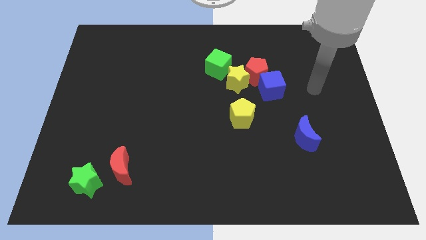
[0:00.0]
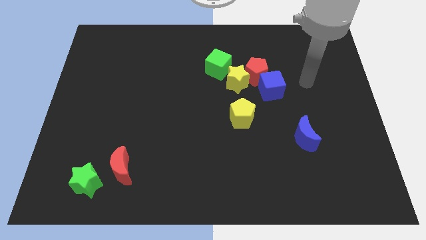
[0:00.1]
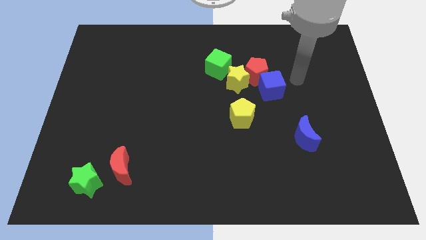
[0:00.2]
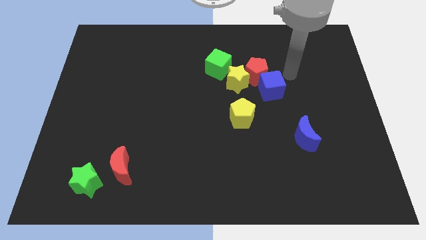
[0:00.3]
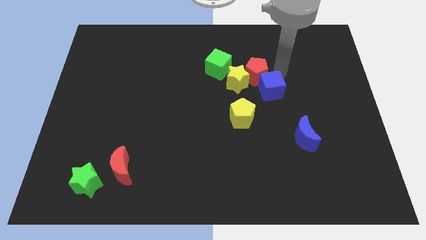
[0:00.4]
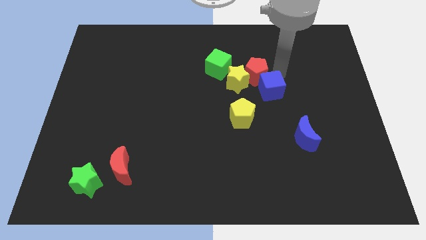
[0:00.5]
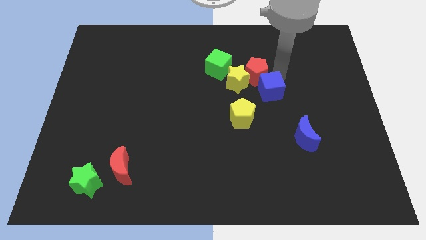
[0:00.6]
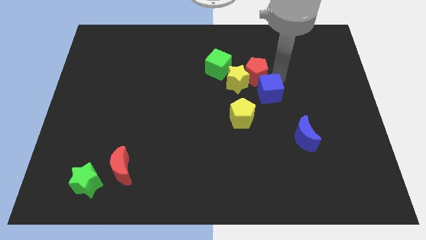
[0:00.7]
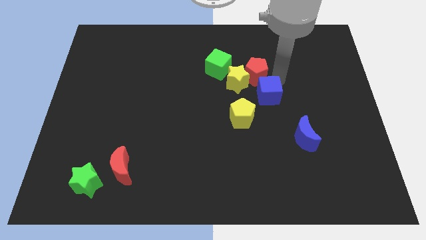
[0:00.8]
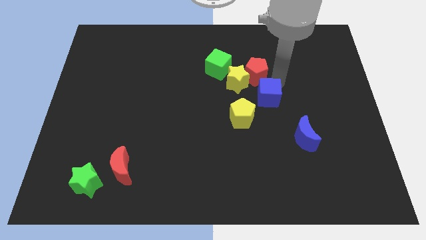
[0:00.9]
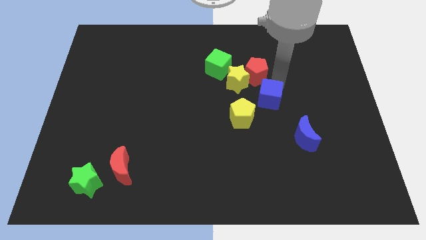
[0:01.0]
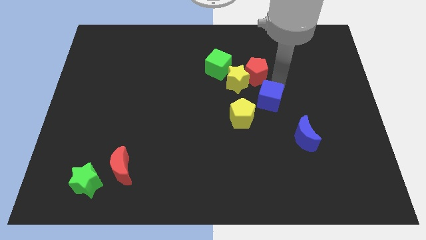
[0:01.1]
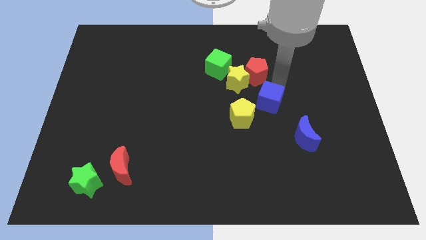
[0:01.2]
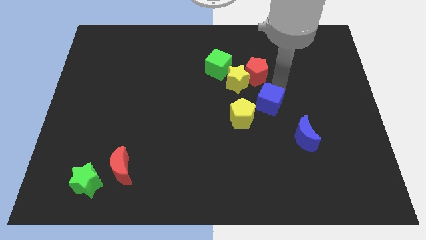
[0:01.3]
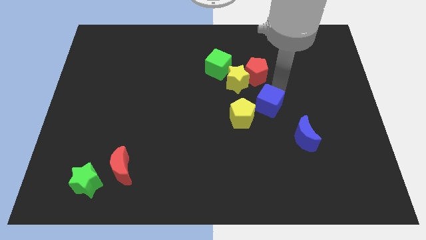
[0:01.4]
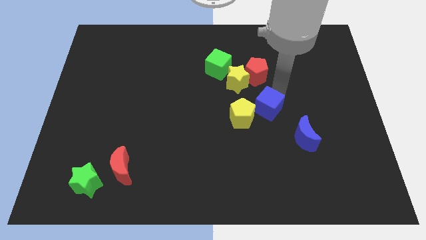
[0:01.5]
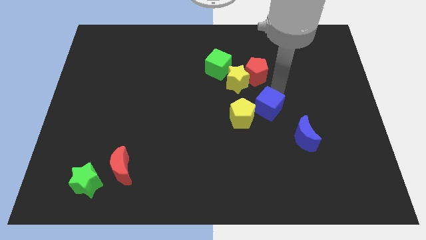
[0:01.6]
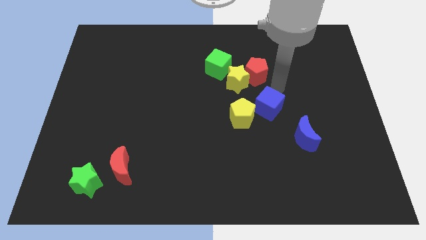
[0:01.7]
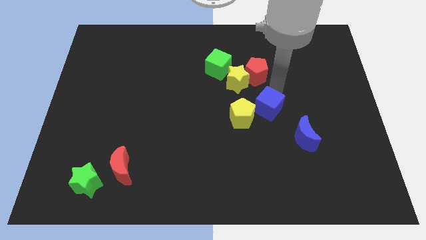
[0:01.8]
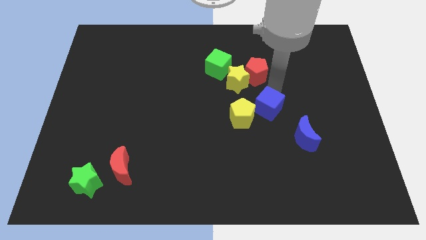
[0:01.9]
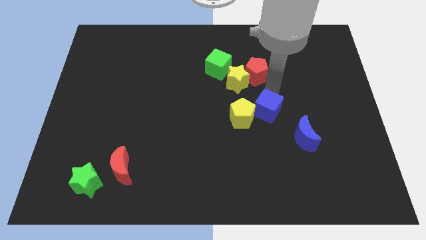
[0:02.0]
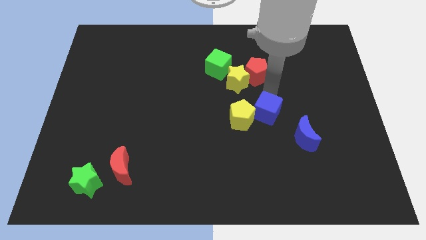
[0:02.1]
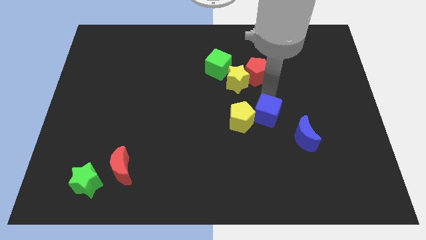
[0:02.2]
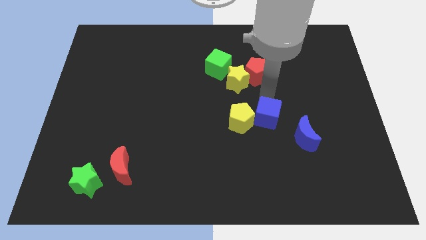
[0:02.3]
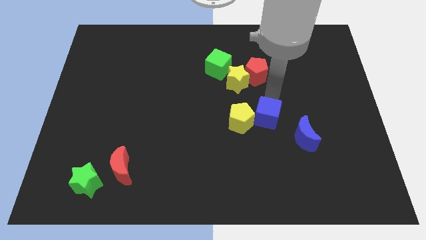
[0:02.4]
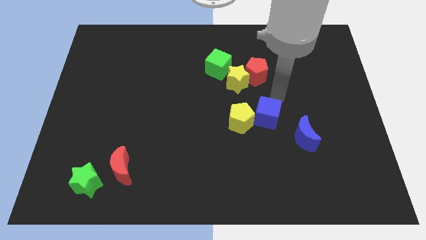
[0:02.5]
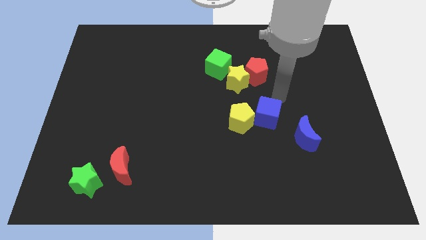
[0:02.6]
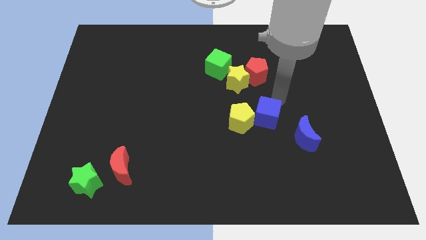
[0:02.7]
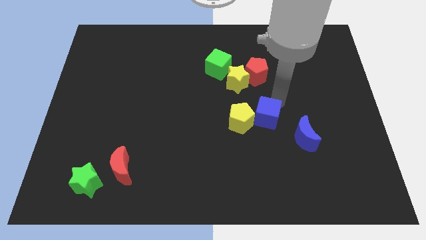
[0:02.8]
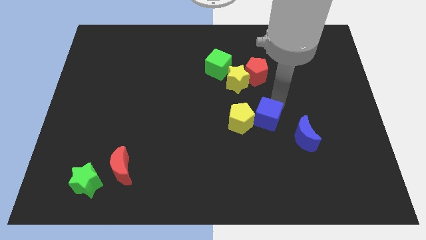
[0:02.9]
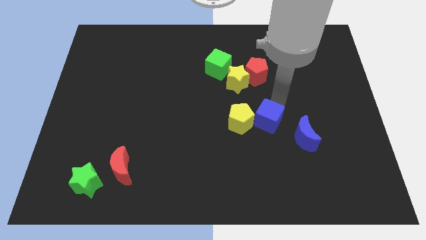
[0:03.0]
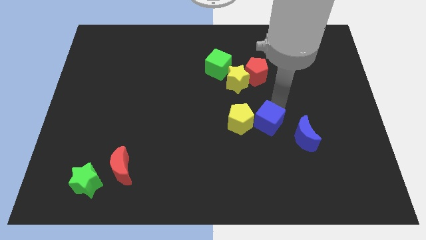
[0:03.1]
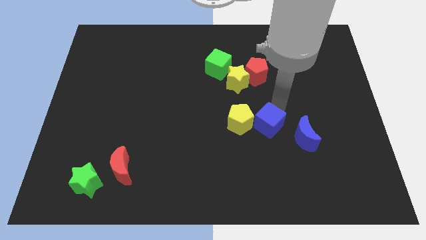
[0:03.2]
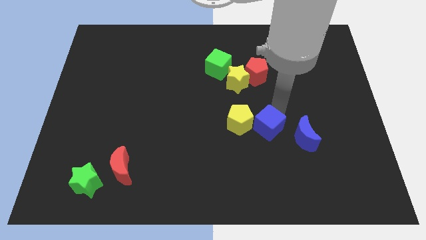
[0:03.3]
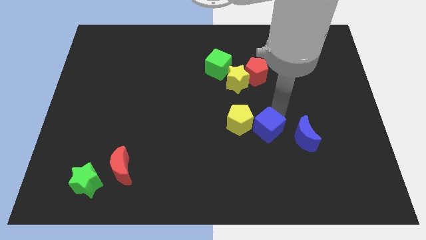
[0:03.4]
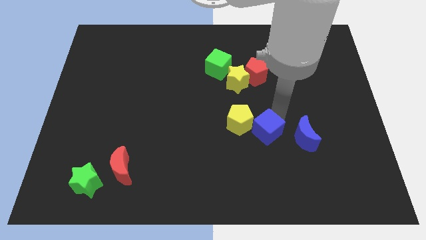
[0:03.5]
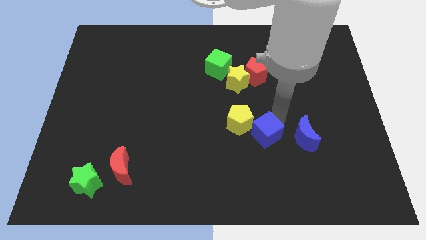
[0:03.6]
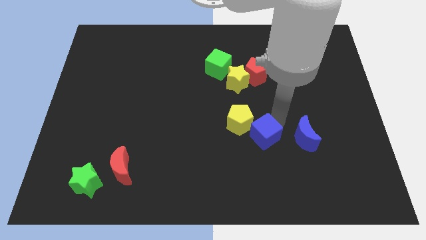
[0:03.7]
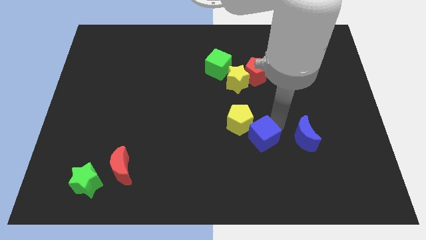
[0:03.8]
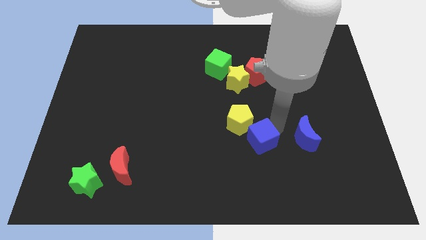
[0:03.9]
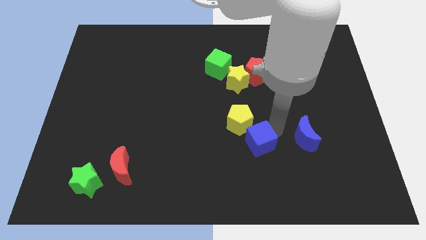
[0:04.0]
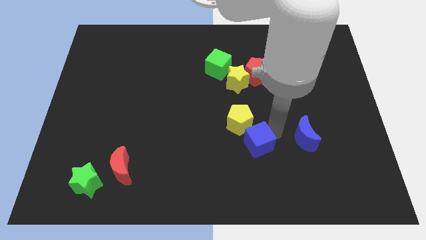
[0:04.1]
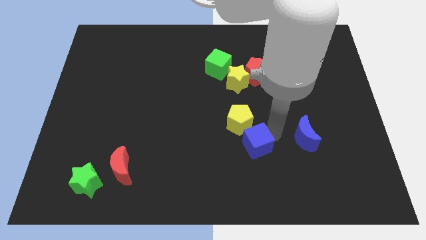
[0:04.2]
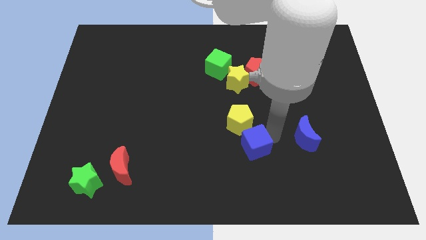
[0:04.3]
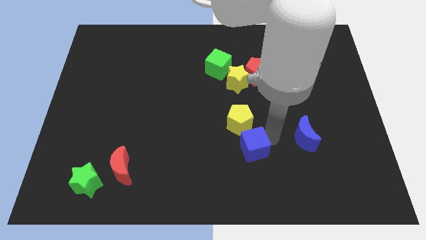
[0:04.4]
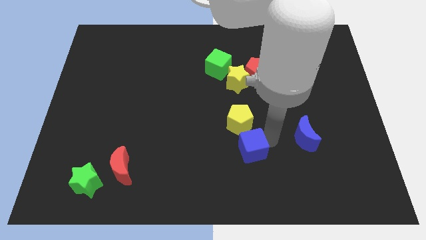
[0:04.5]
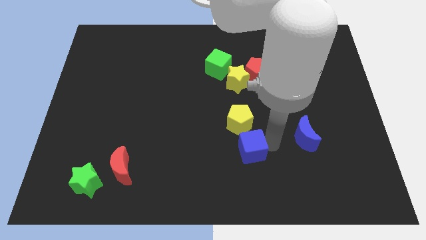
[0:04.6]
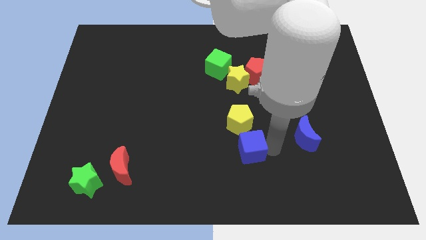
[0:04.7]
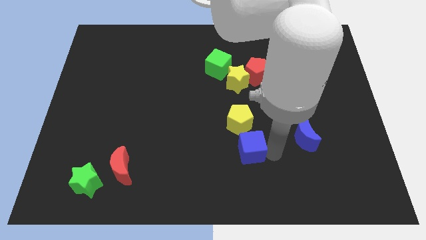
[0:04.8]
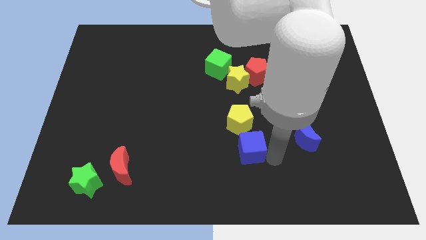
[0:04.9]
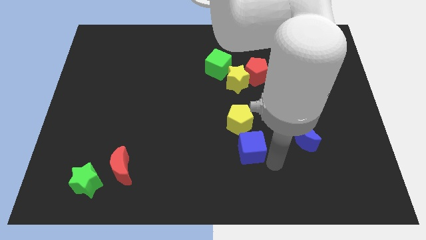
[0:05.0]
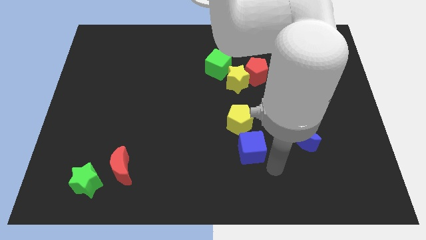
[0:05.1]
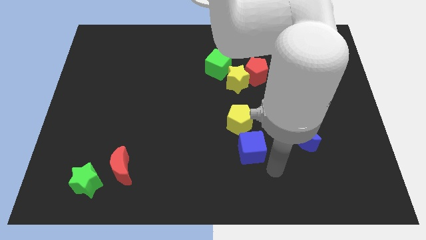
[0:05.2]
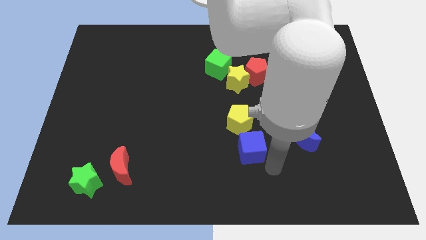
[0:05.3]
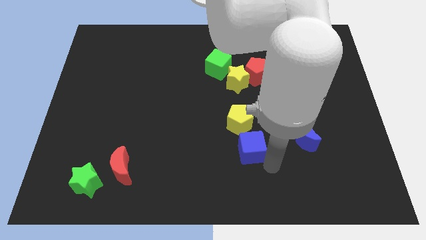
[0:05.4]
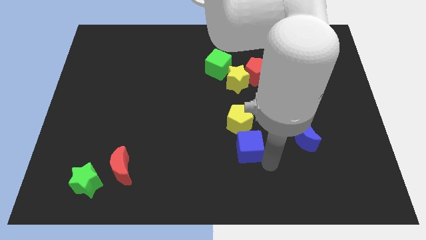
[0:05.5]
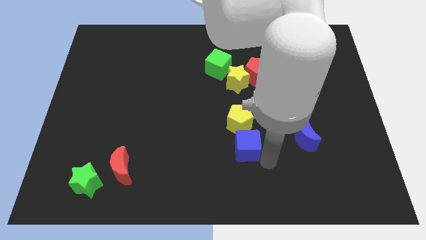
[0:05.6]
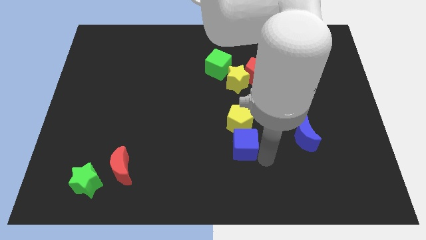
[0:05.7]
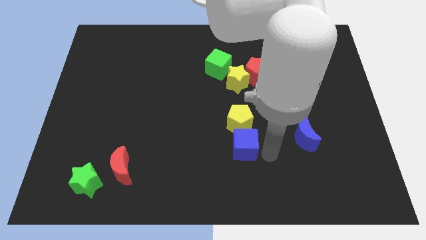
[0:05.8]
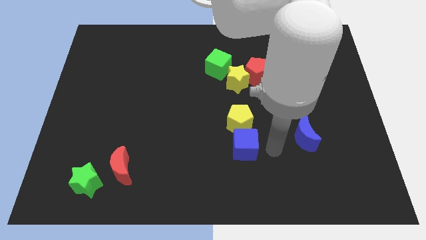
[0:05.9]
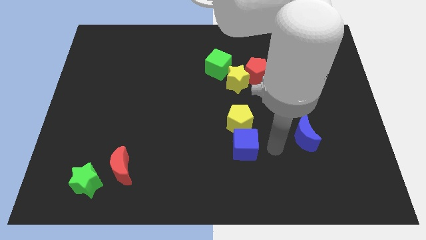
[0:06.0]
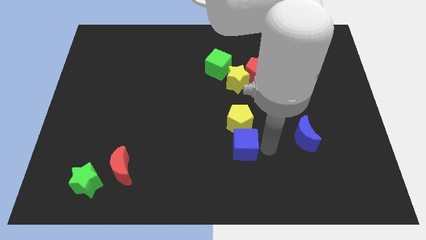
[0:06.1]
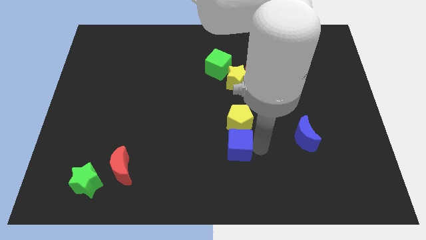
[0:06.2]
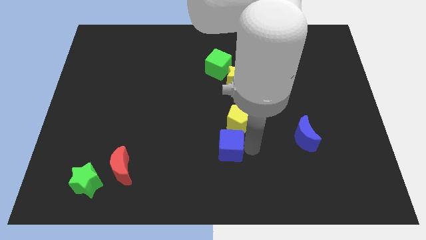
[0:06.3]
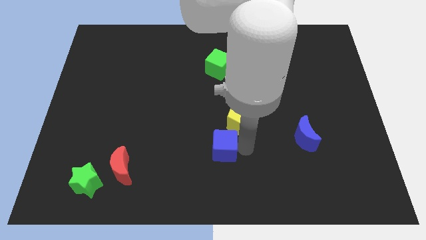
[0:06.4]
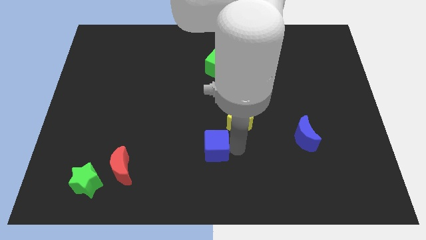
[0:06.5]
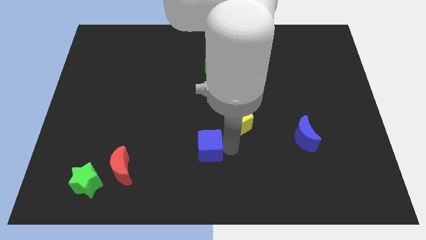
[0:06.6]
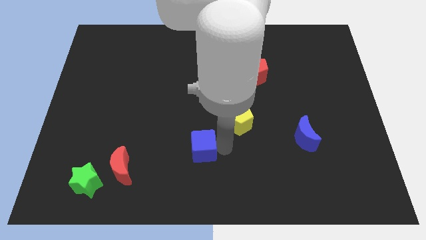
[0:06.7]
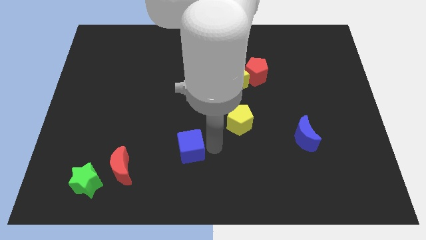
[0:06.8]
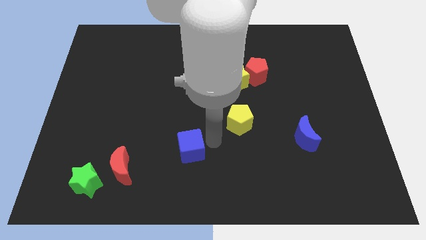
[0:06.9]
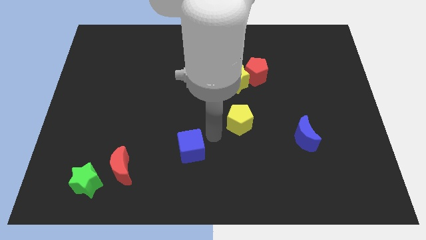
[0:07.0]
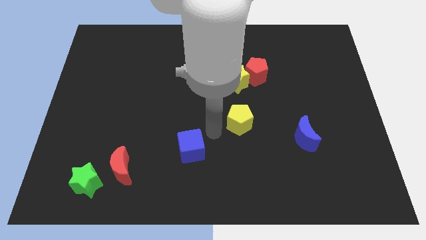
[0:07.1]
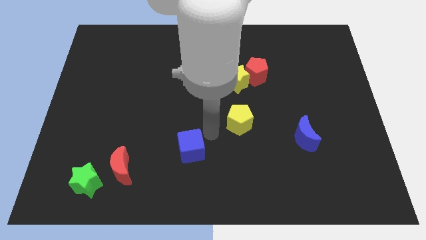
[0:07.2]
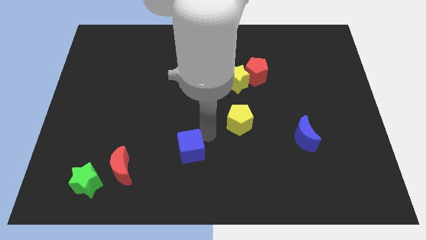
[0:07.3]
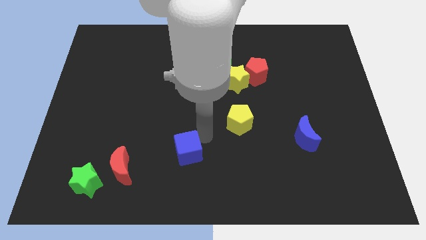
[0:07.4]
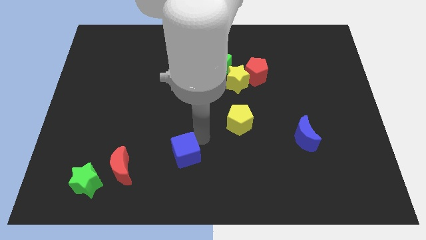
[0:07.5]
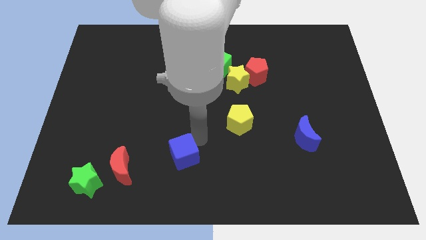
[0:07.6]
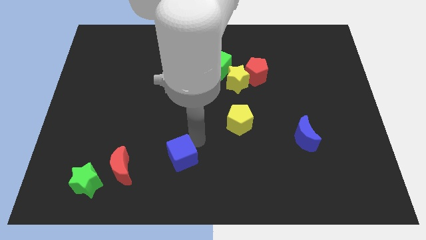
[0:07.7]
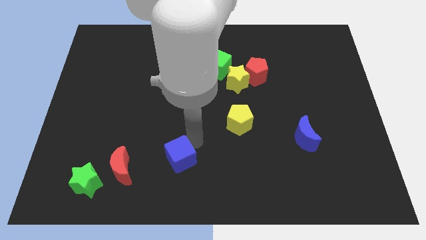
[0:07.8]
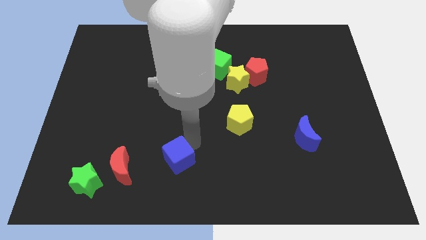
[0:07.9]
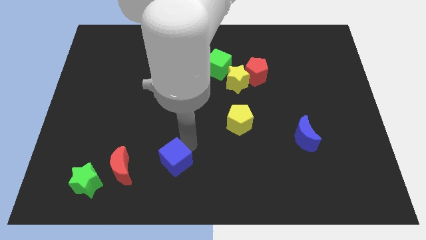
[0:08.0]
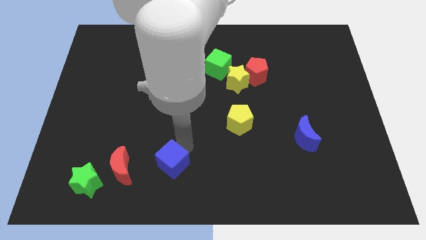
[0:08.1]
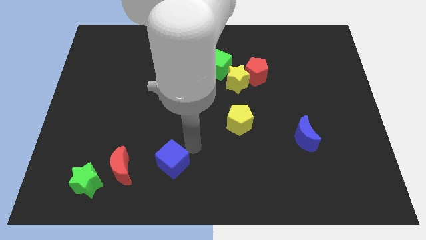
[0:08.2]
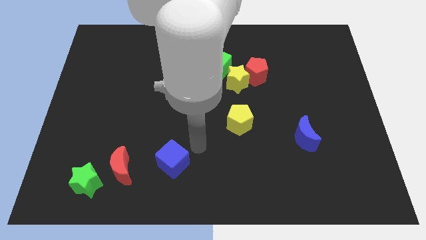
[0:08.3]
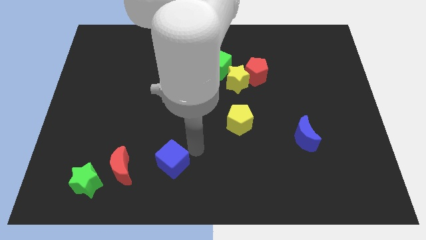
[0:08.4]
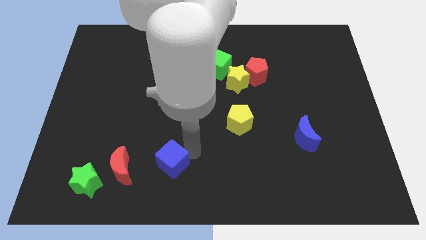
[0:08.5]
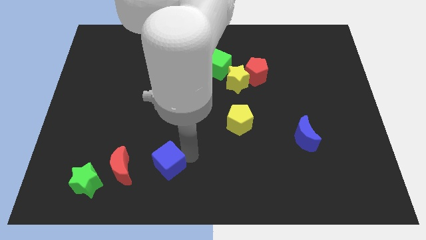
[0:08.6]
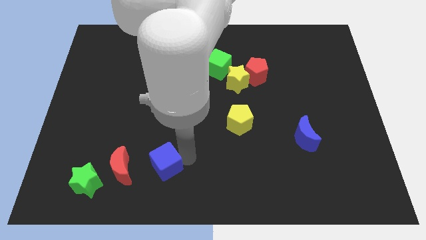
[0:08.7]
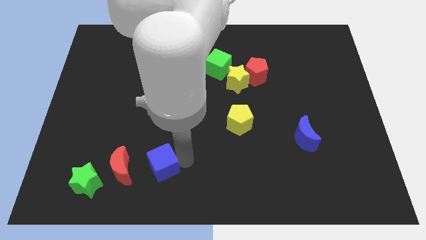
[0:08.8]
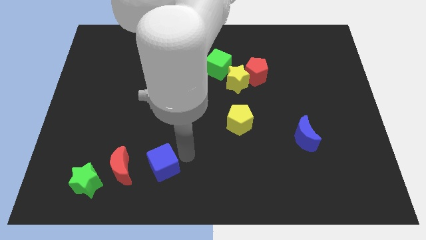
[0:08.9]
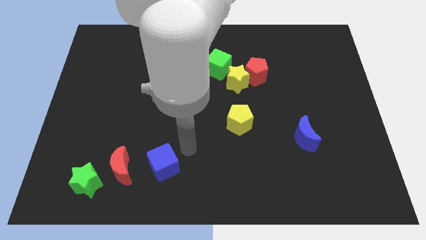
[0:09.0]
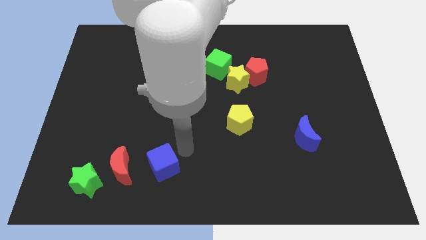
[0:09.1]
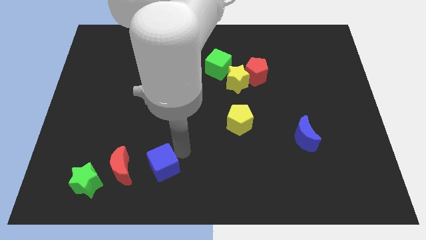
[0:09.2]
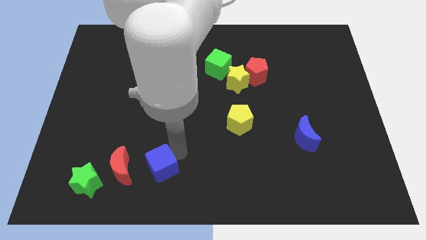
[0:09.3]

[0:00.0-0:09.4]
push the blue cube to the right side of the green star
